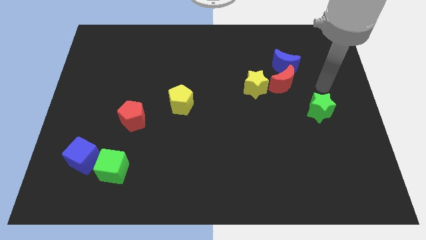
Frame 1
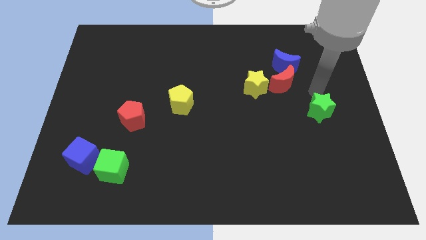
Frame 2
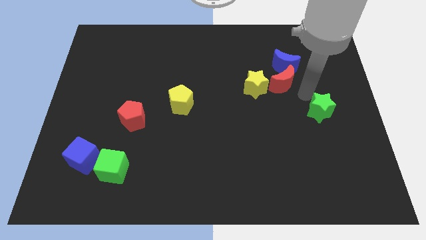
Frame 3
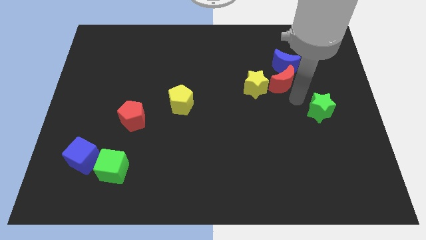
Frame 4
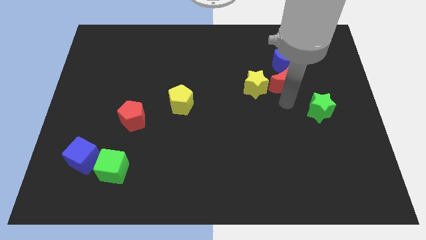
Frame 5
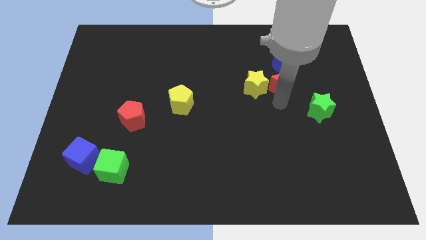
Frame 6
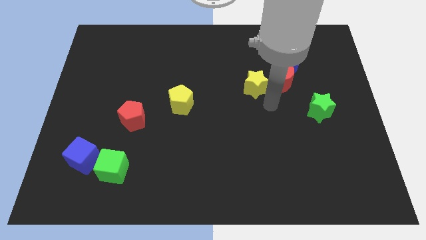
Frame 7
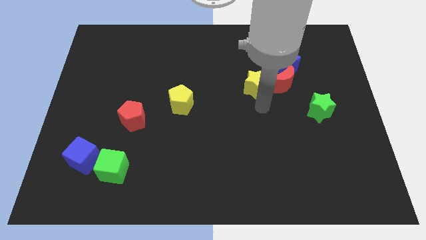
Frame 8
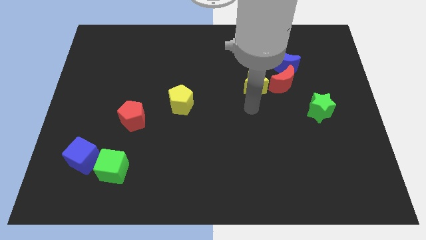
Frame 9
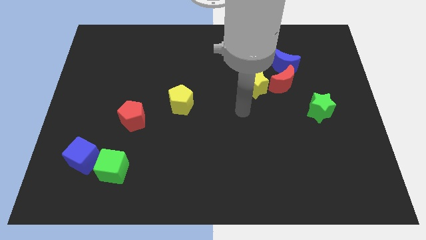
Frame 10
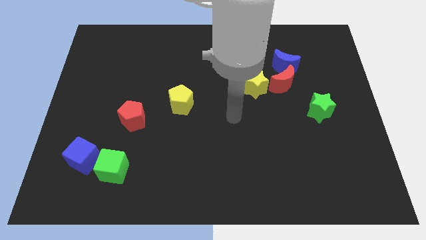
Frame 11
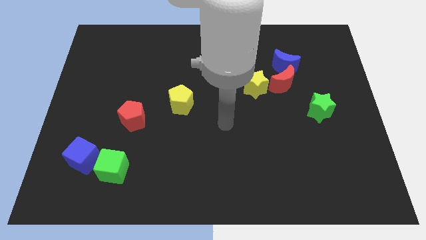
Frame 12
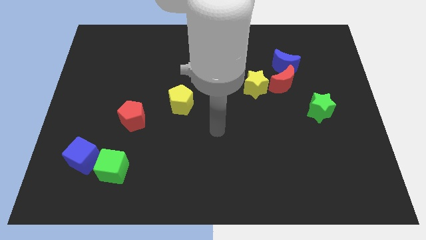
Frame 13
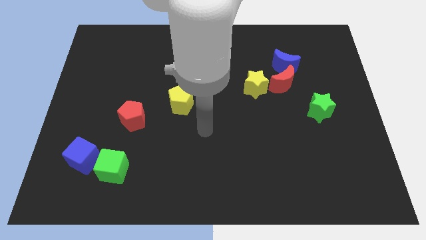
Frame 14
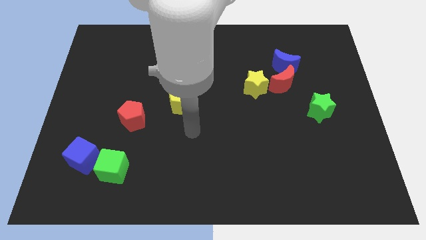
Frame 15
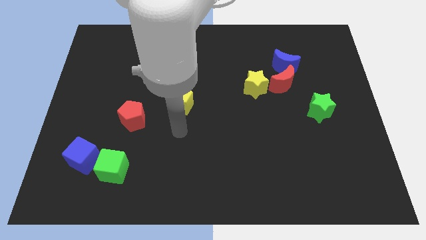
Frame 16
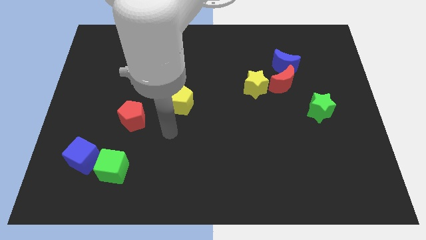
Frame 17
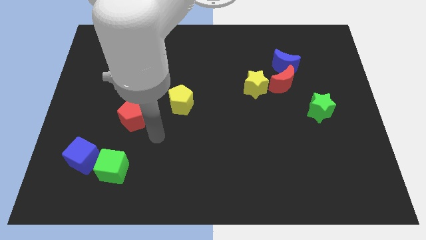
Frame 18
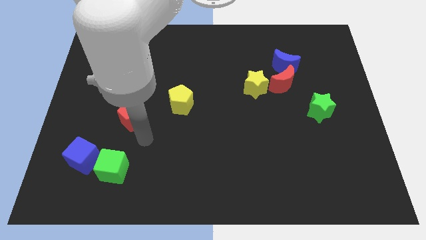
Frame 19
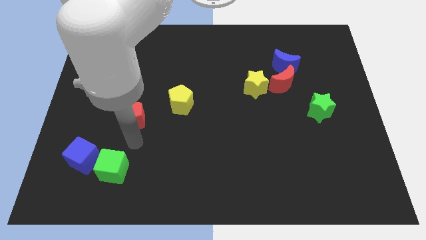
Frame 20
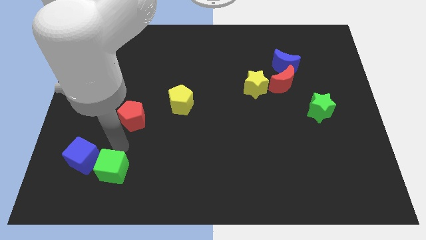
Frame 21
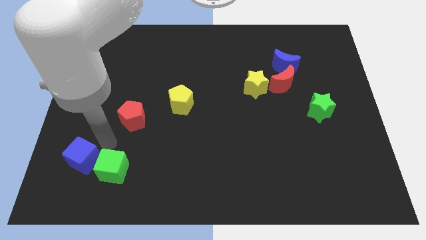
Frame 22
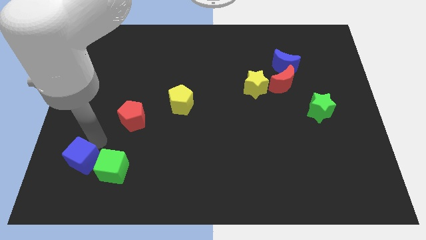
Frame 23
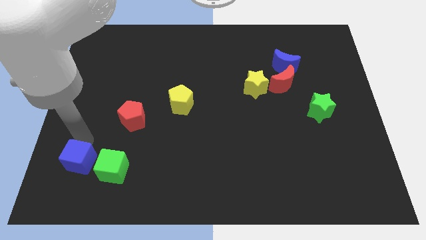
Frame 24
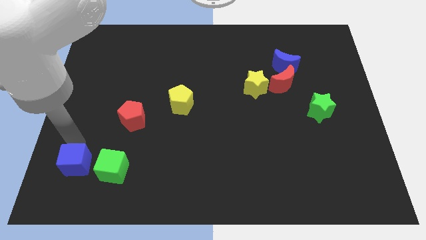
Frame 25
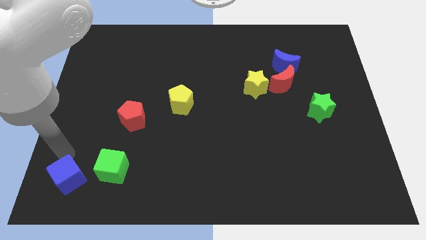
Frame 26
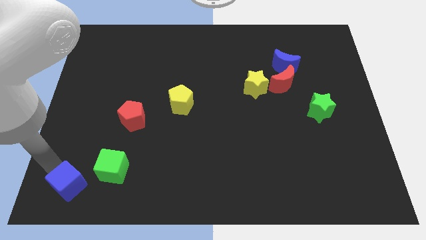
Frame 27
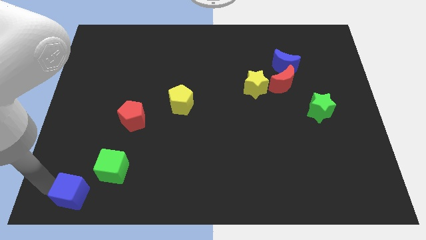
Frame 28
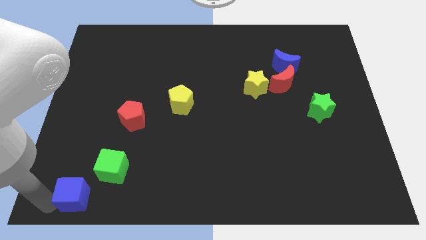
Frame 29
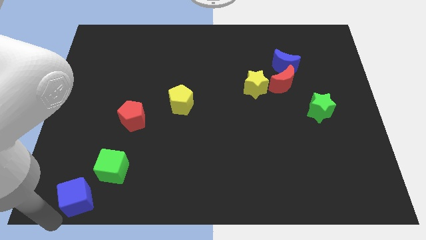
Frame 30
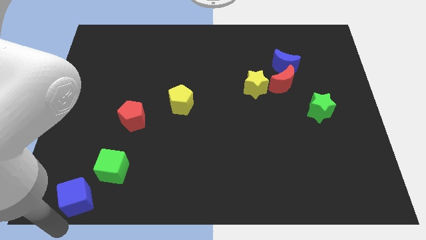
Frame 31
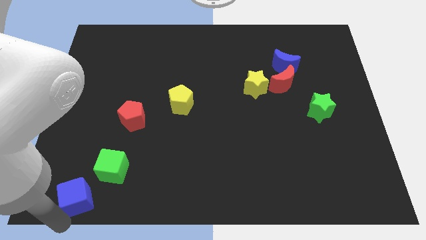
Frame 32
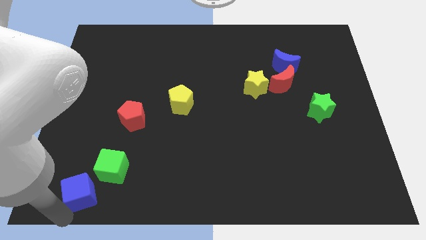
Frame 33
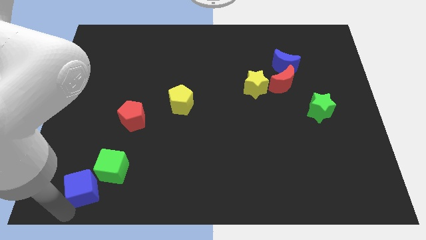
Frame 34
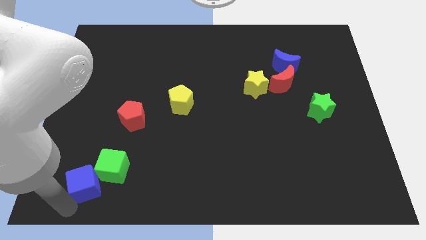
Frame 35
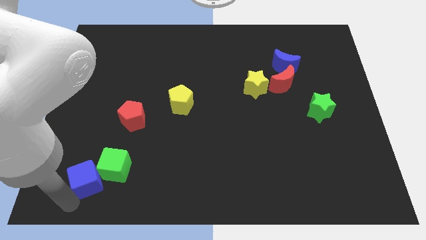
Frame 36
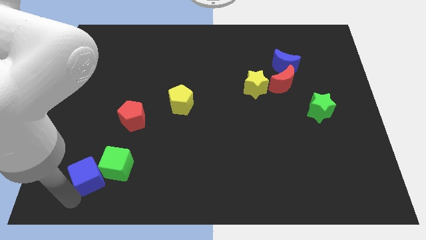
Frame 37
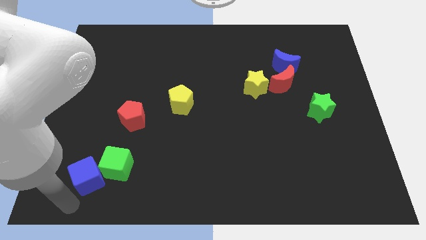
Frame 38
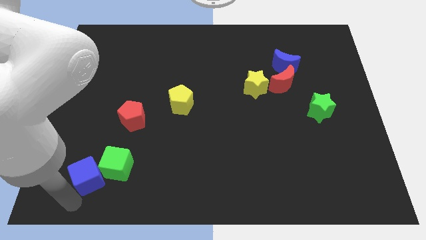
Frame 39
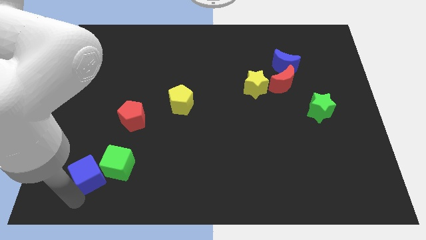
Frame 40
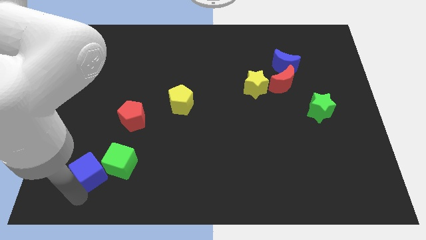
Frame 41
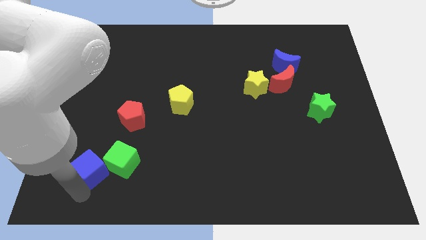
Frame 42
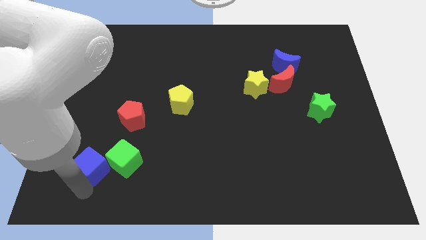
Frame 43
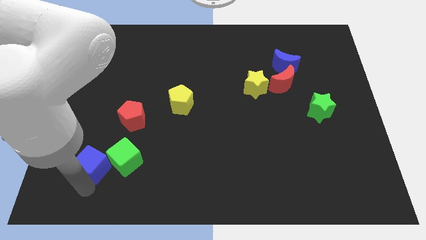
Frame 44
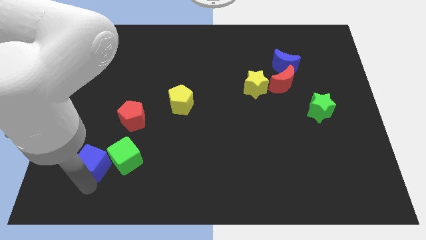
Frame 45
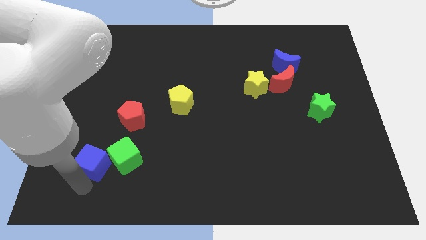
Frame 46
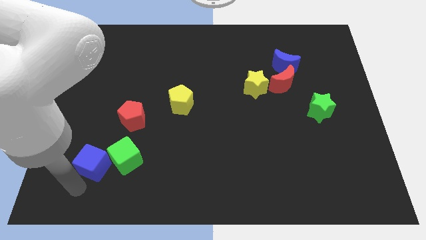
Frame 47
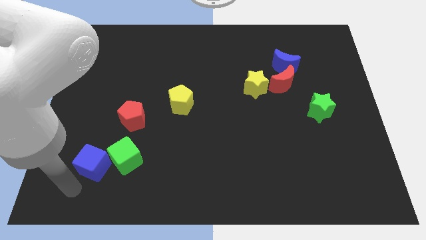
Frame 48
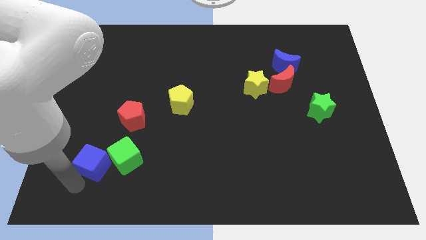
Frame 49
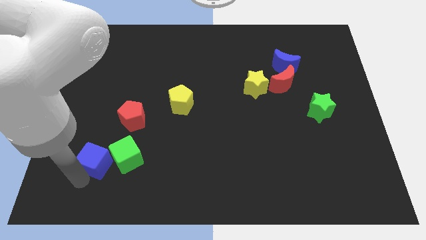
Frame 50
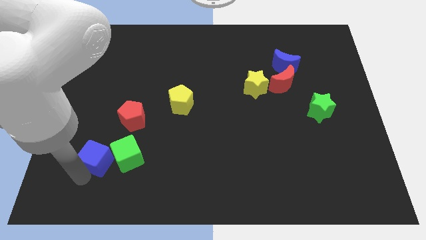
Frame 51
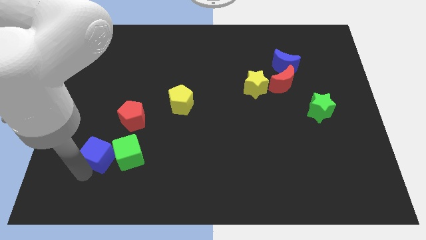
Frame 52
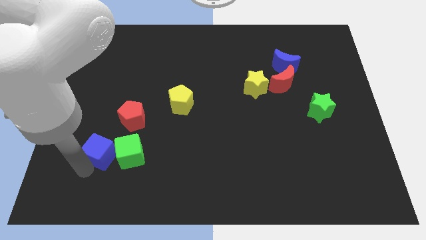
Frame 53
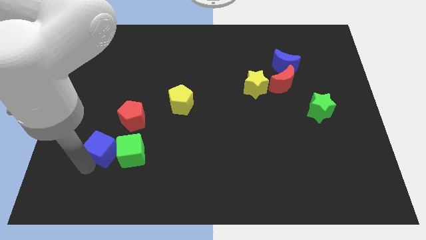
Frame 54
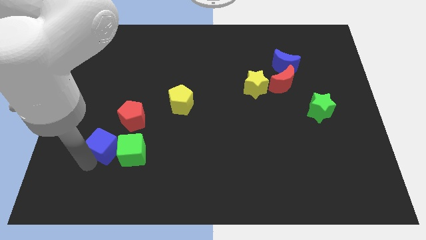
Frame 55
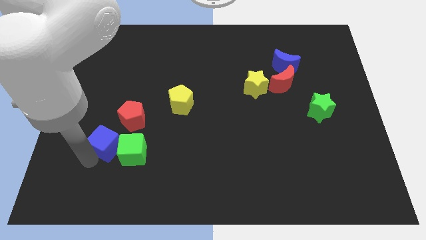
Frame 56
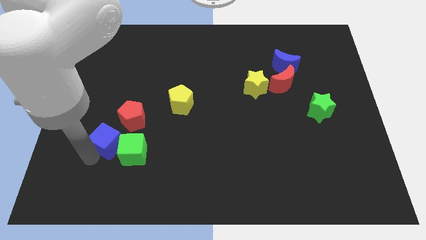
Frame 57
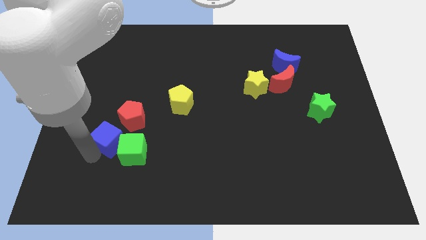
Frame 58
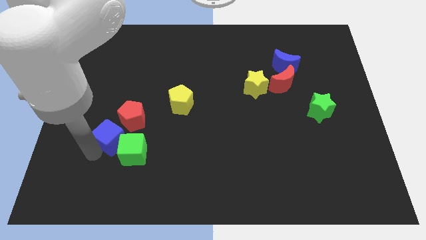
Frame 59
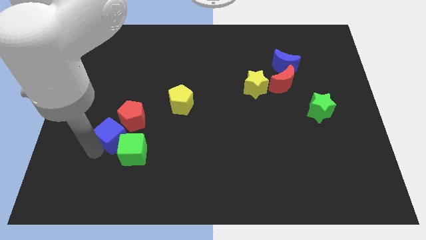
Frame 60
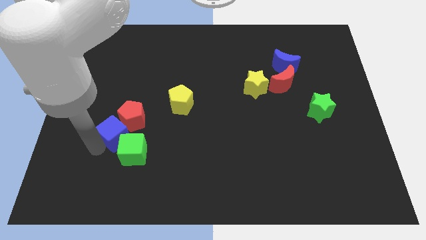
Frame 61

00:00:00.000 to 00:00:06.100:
slide the blue cube to the red pentagon
